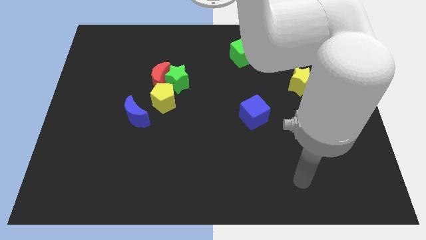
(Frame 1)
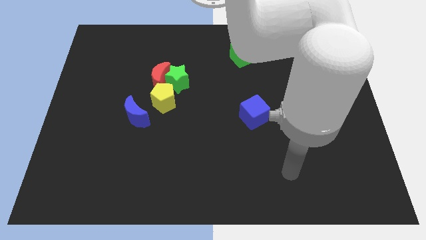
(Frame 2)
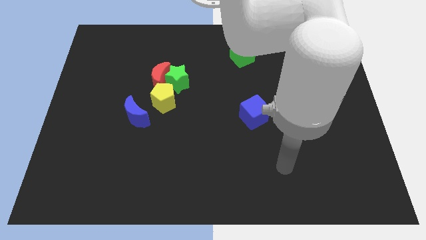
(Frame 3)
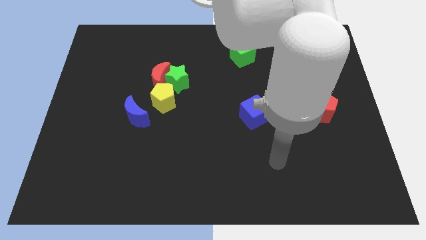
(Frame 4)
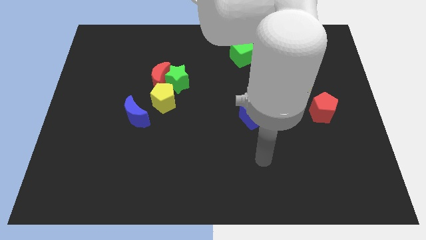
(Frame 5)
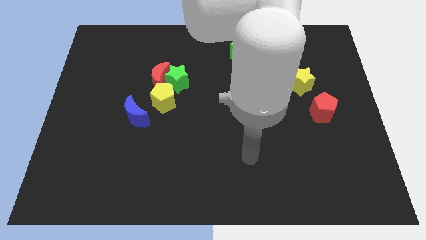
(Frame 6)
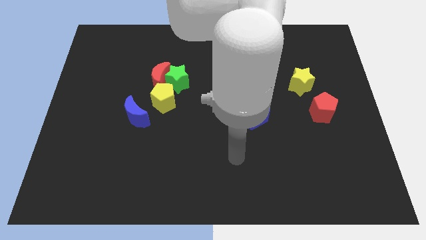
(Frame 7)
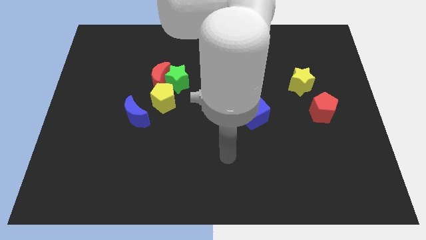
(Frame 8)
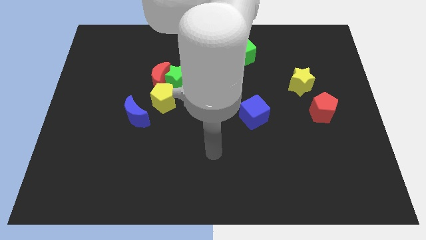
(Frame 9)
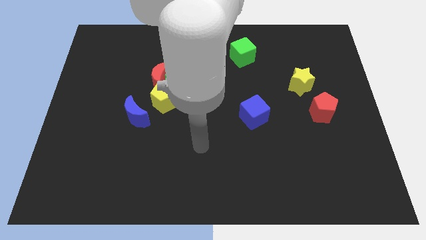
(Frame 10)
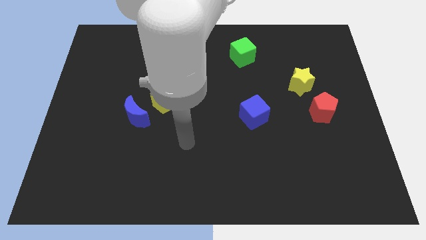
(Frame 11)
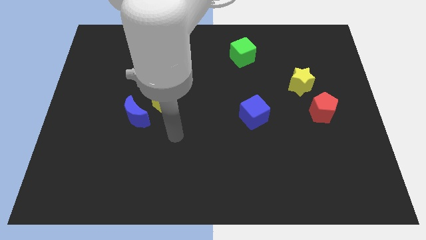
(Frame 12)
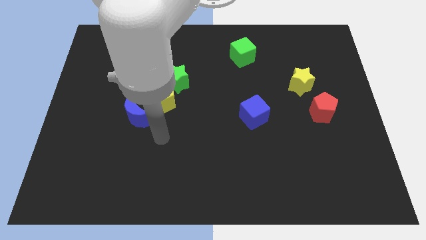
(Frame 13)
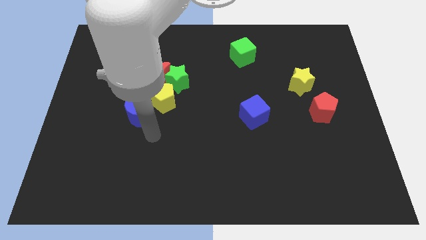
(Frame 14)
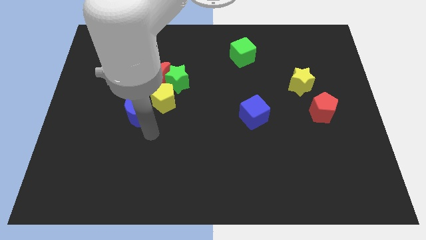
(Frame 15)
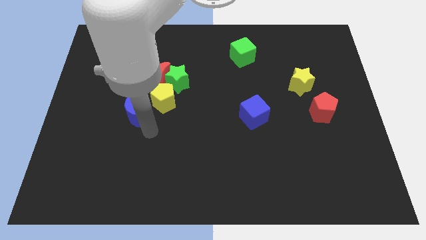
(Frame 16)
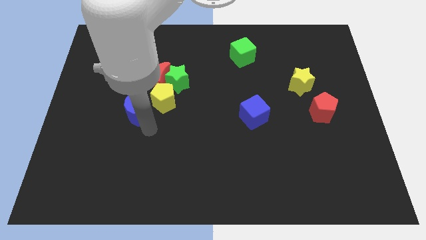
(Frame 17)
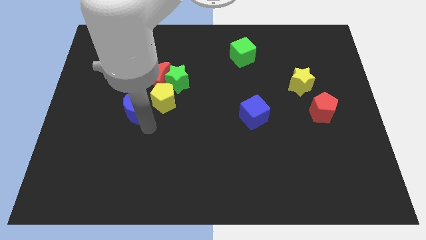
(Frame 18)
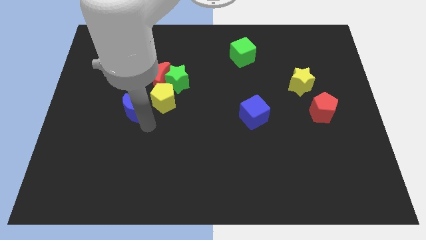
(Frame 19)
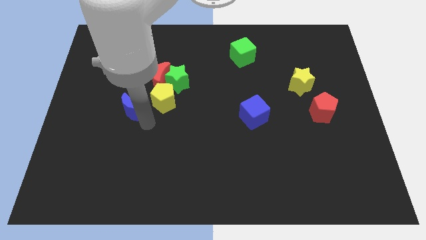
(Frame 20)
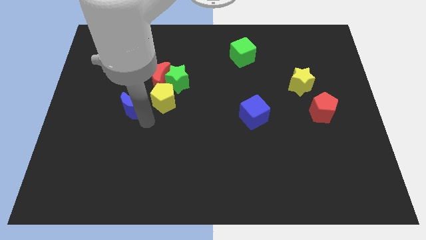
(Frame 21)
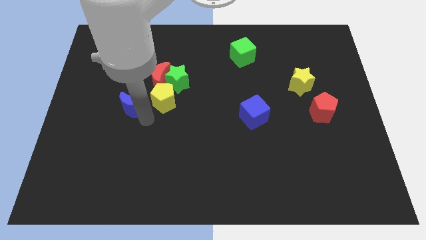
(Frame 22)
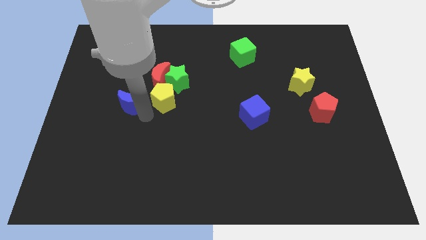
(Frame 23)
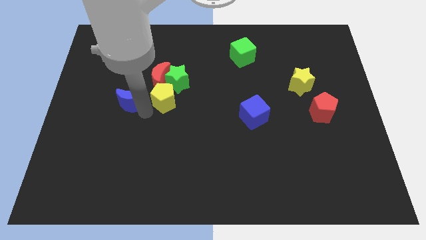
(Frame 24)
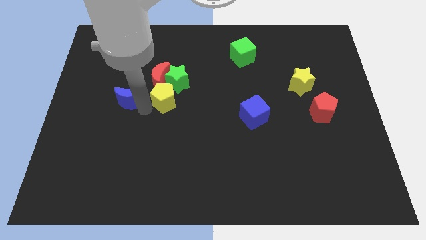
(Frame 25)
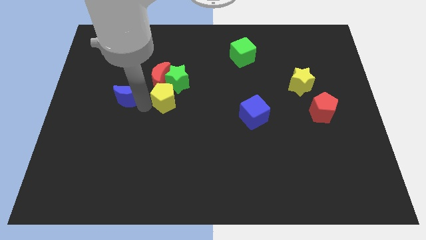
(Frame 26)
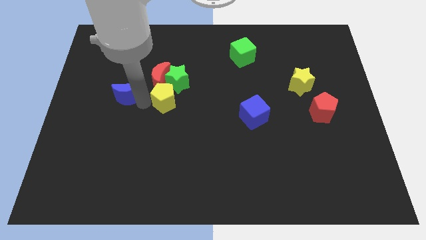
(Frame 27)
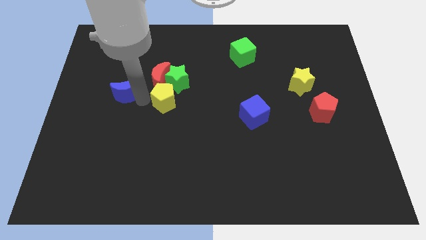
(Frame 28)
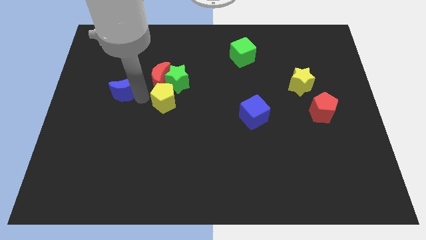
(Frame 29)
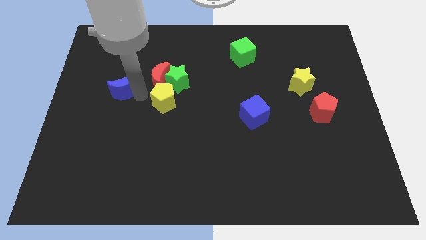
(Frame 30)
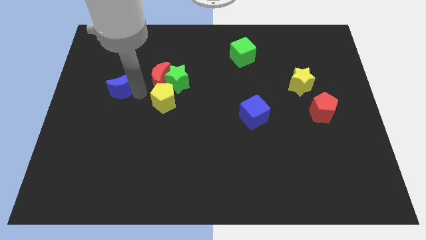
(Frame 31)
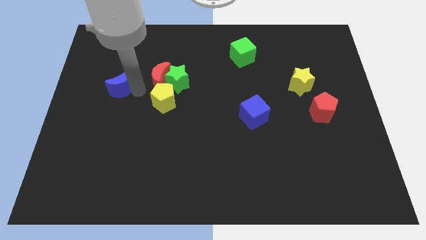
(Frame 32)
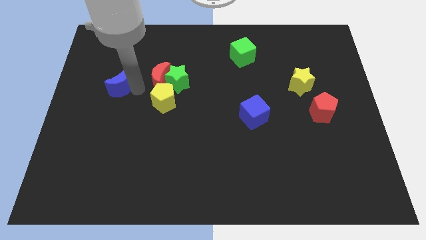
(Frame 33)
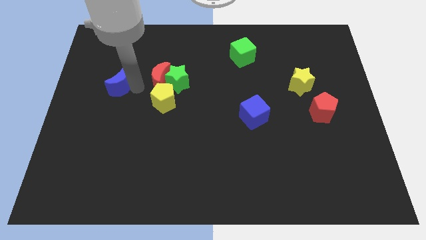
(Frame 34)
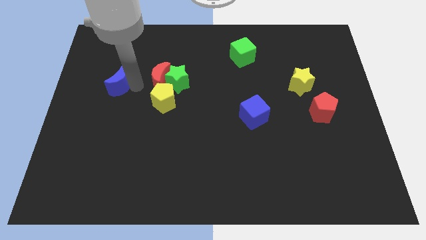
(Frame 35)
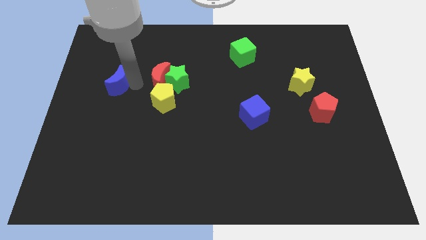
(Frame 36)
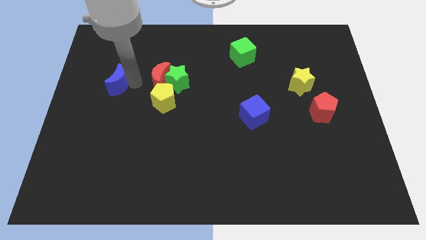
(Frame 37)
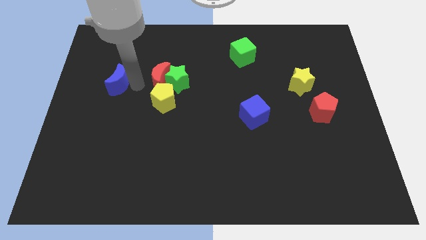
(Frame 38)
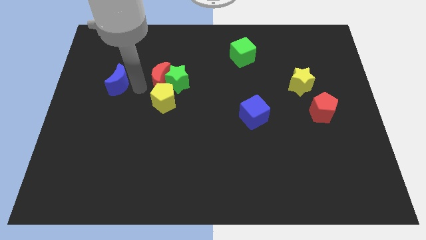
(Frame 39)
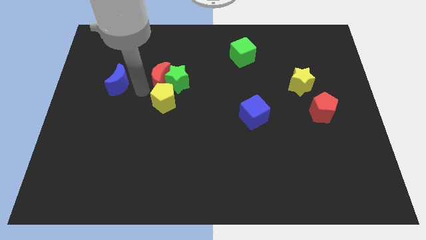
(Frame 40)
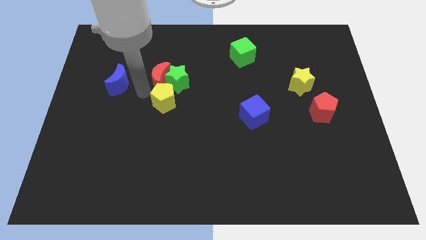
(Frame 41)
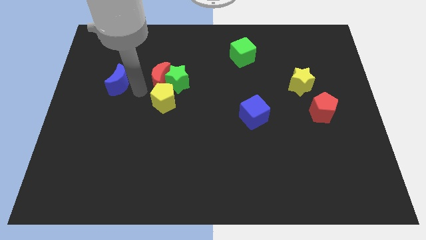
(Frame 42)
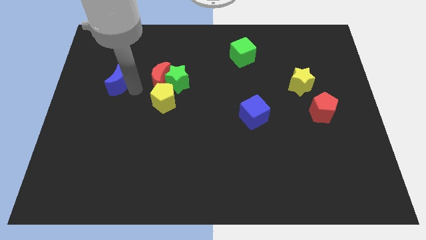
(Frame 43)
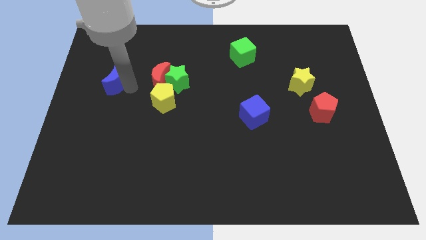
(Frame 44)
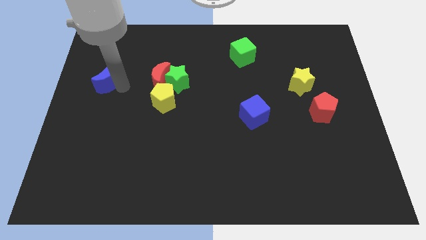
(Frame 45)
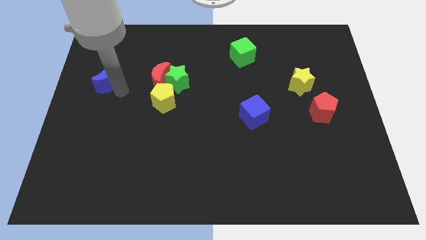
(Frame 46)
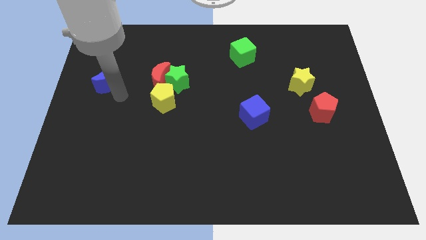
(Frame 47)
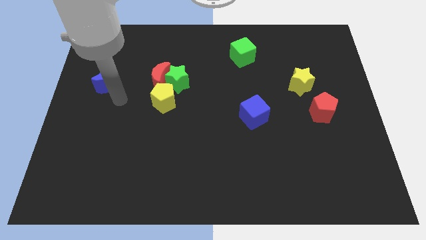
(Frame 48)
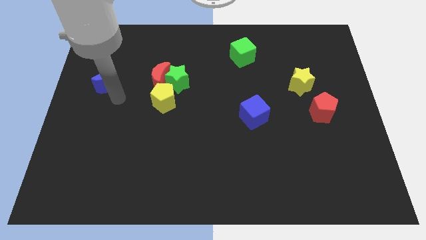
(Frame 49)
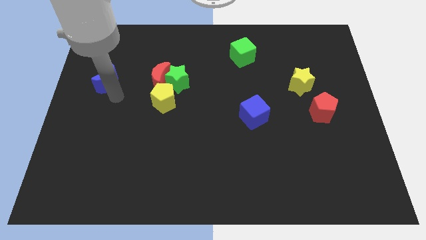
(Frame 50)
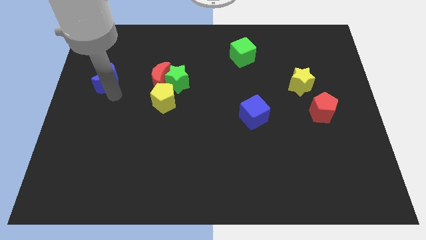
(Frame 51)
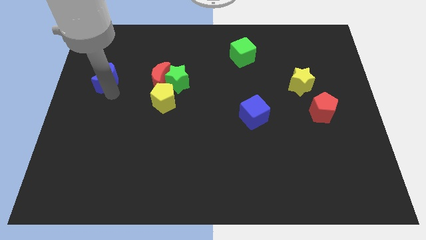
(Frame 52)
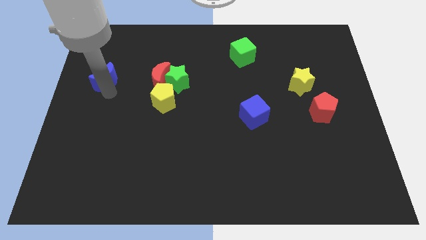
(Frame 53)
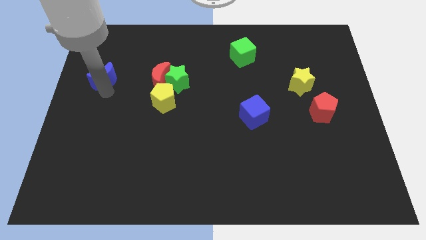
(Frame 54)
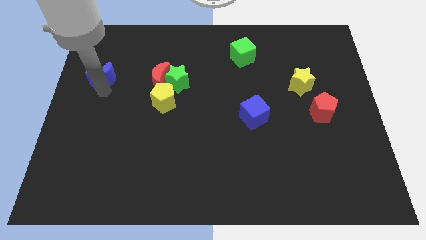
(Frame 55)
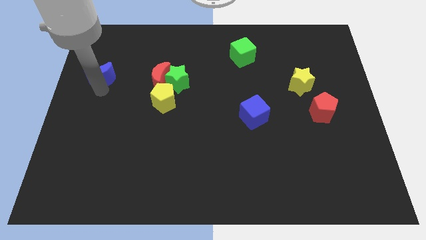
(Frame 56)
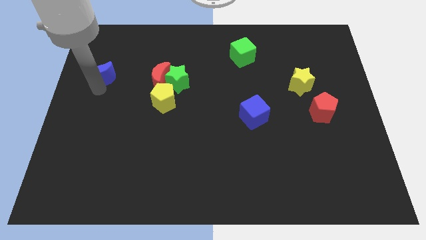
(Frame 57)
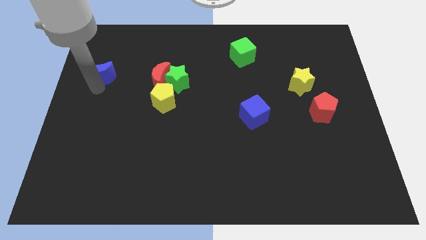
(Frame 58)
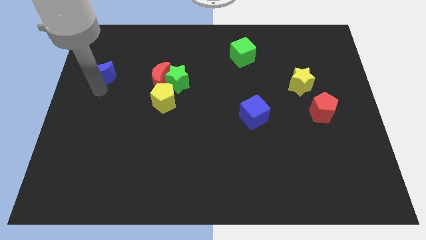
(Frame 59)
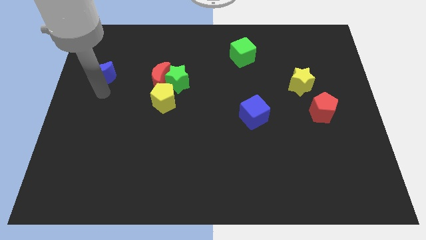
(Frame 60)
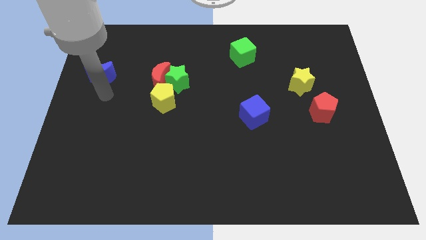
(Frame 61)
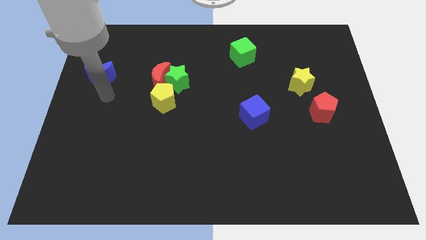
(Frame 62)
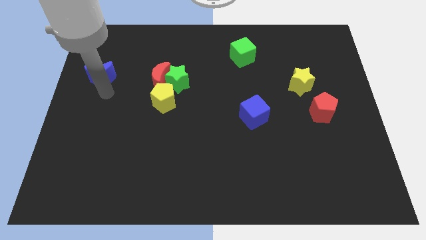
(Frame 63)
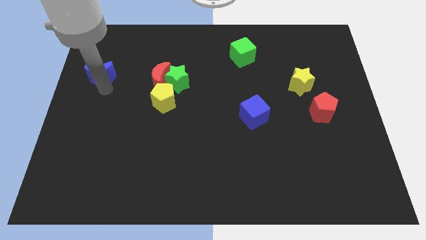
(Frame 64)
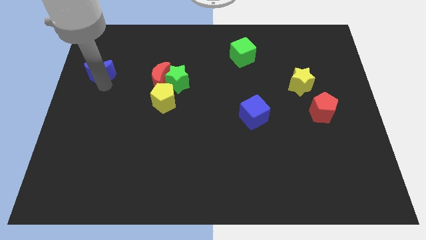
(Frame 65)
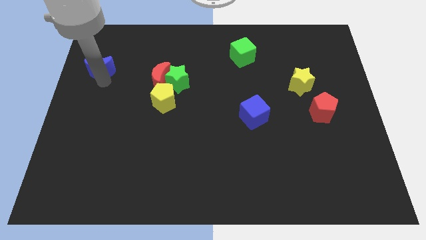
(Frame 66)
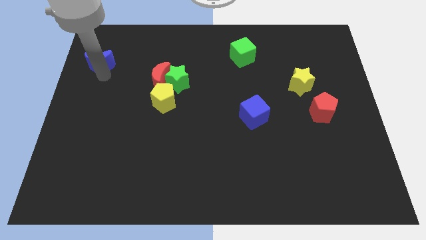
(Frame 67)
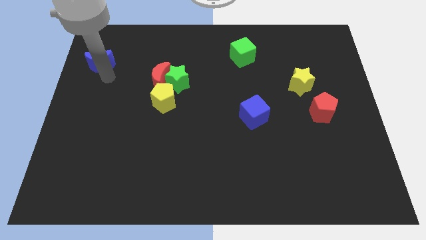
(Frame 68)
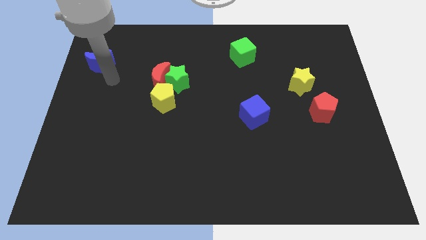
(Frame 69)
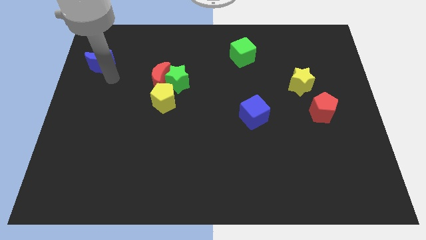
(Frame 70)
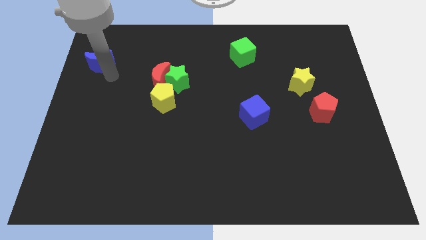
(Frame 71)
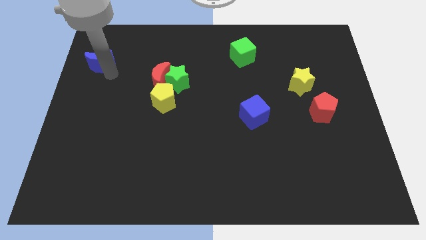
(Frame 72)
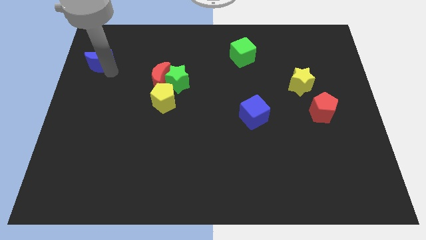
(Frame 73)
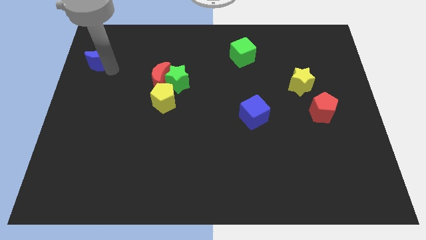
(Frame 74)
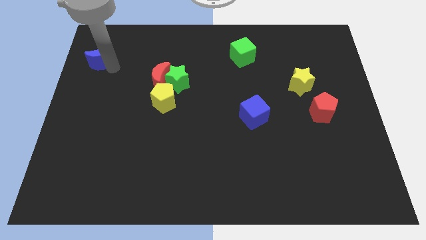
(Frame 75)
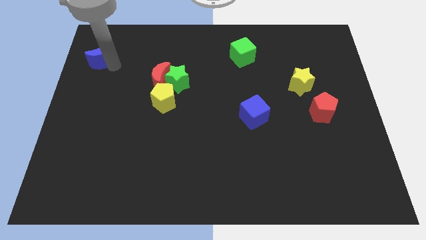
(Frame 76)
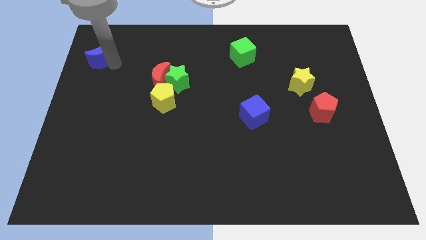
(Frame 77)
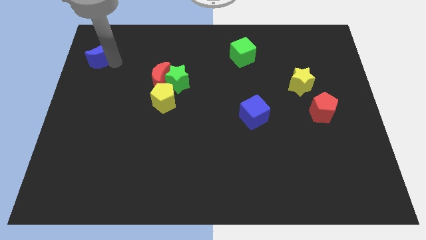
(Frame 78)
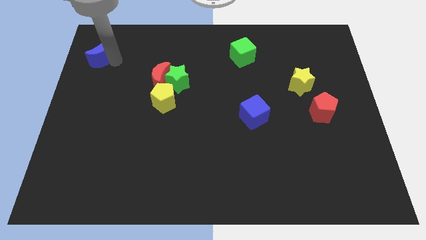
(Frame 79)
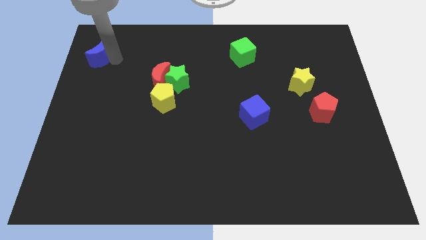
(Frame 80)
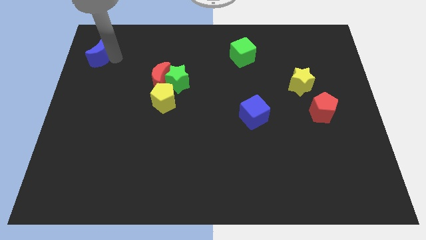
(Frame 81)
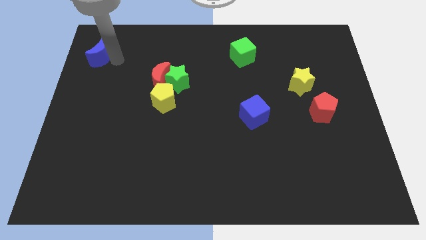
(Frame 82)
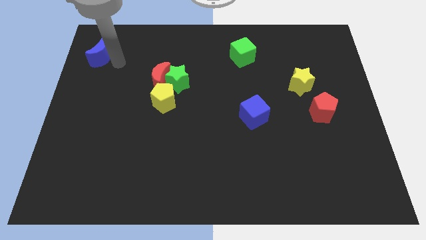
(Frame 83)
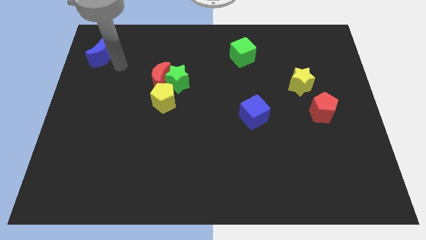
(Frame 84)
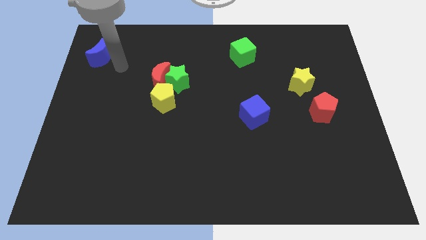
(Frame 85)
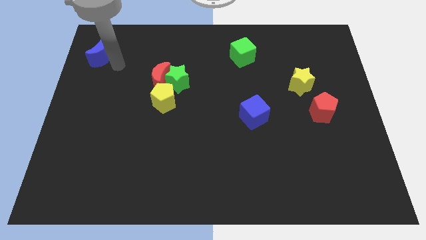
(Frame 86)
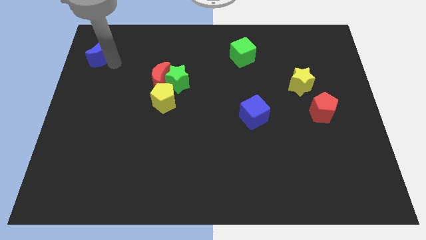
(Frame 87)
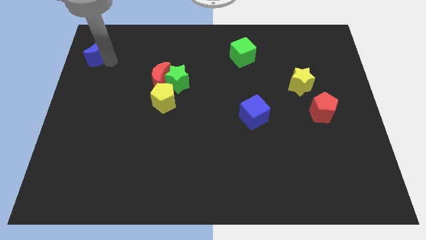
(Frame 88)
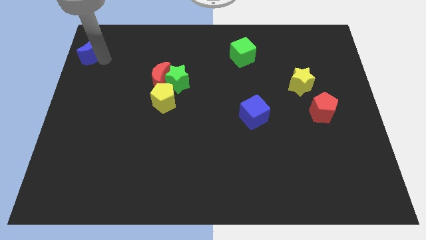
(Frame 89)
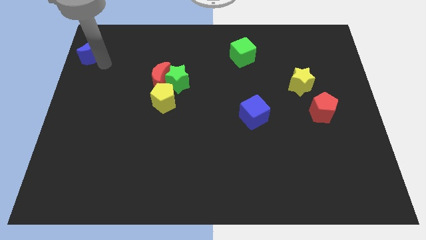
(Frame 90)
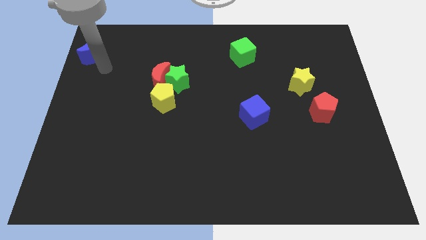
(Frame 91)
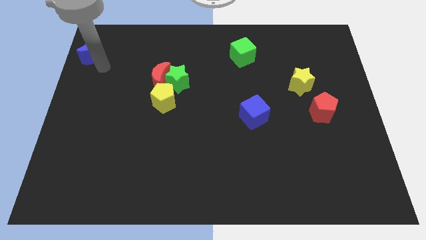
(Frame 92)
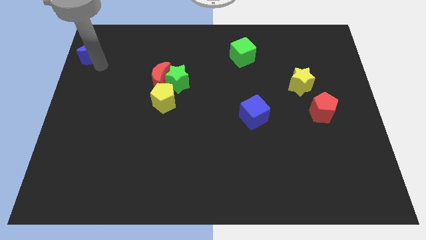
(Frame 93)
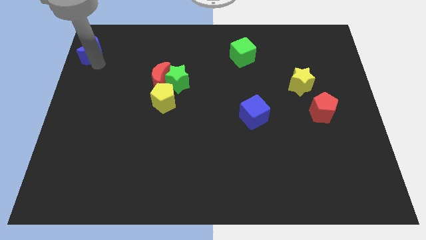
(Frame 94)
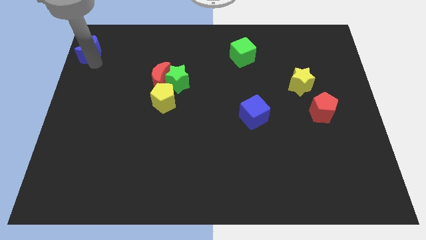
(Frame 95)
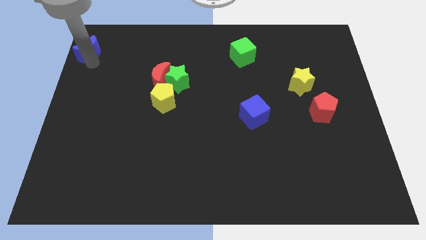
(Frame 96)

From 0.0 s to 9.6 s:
move the blue moon to the top left
